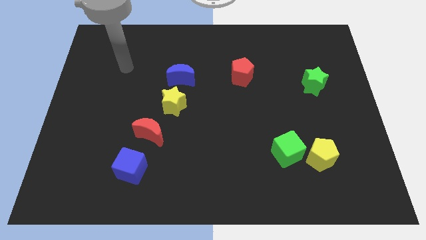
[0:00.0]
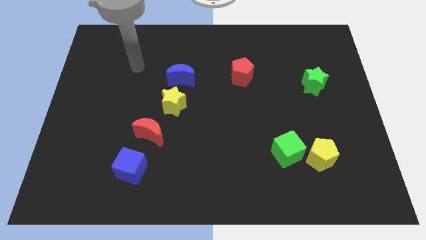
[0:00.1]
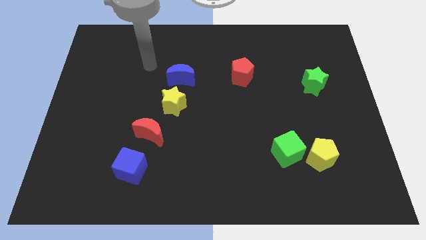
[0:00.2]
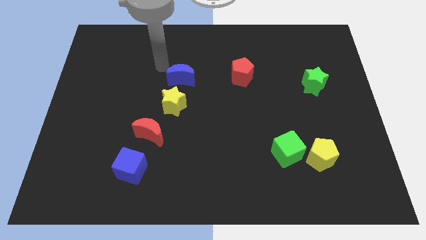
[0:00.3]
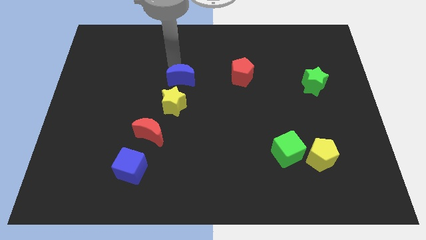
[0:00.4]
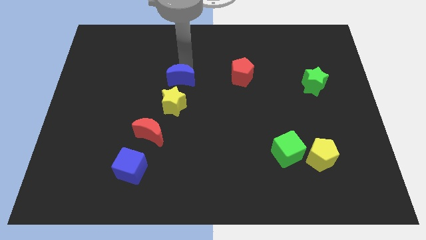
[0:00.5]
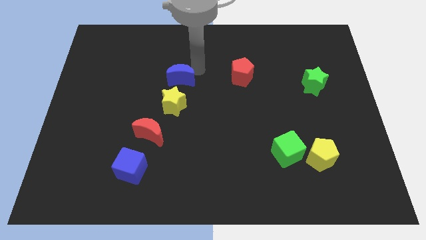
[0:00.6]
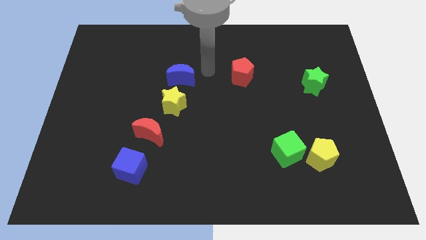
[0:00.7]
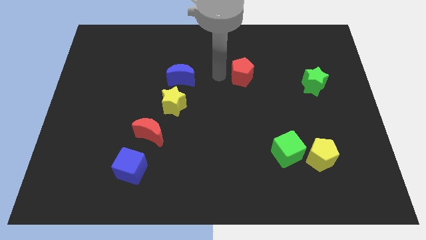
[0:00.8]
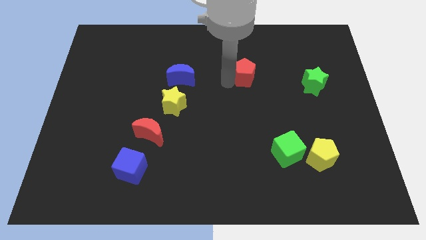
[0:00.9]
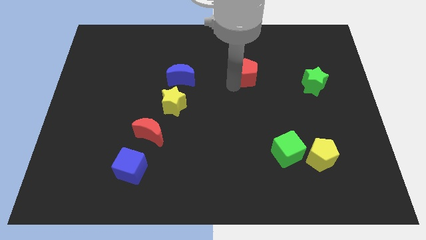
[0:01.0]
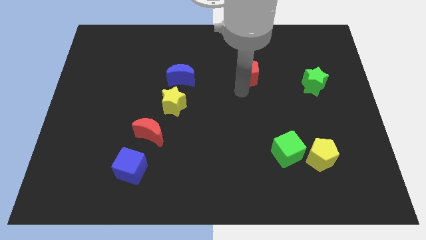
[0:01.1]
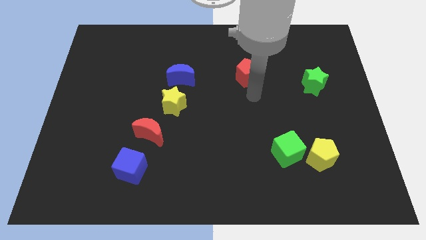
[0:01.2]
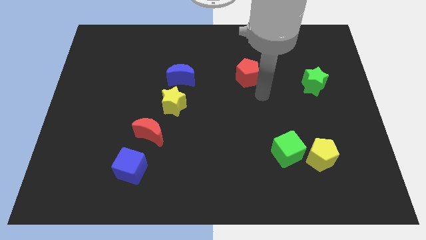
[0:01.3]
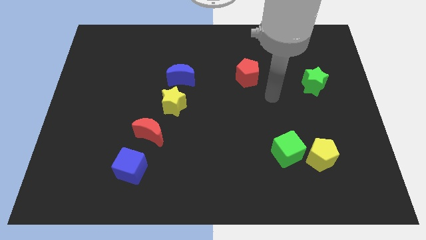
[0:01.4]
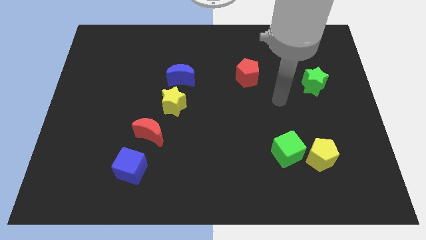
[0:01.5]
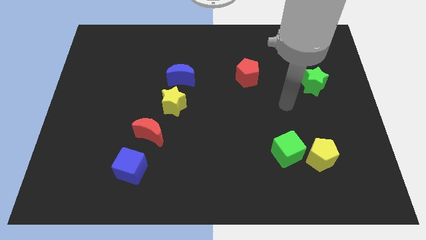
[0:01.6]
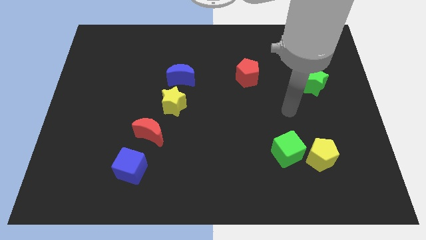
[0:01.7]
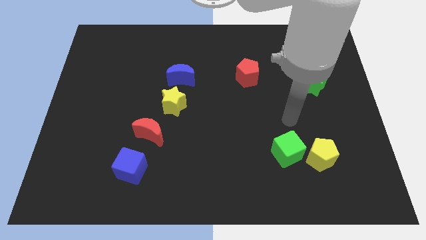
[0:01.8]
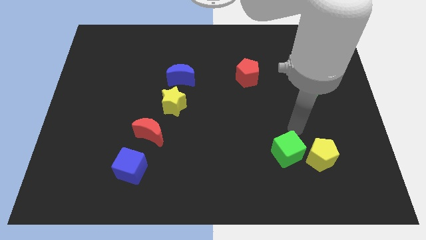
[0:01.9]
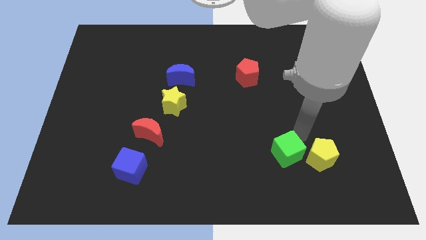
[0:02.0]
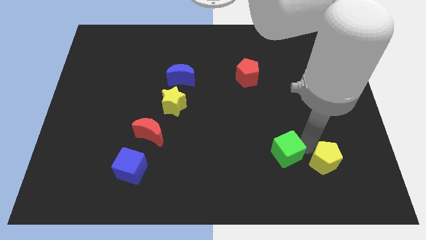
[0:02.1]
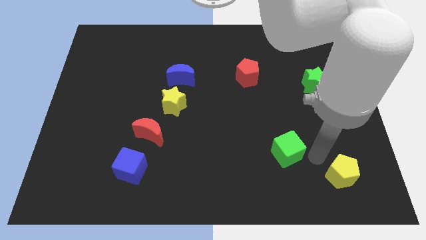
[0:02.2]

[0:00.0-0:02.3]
move the green cube away from the yellow pentagon

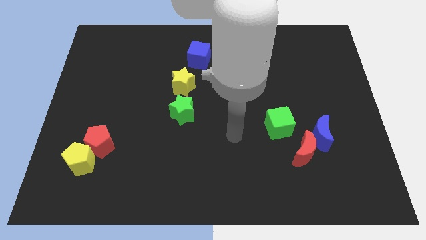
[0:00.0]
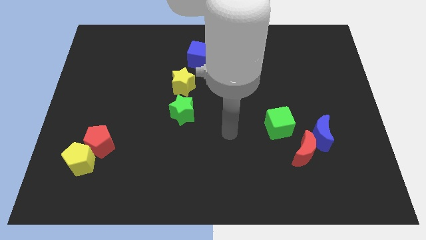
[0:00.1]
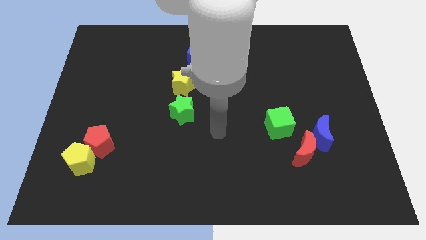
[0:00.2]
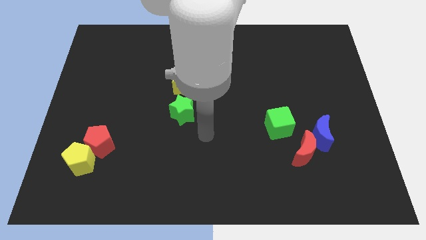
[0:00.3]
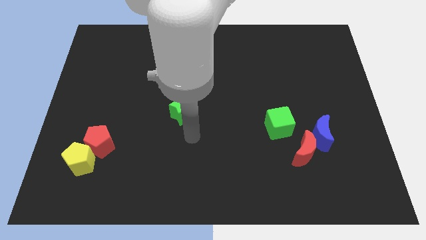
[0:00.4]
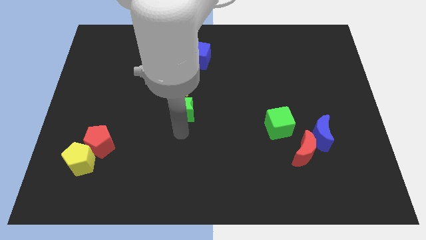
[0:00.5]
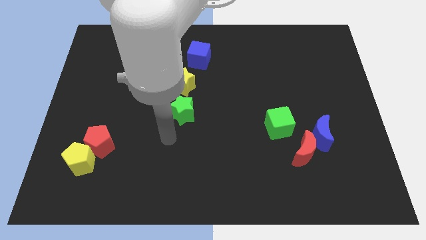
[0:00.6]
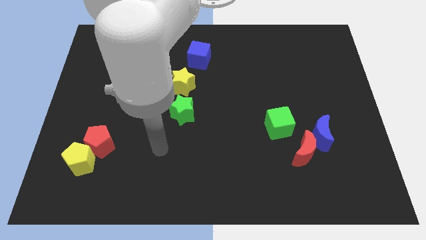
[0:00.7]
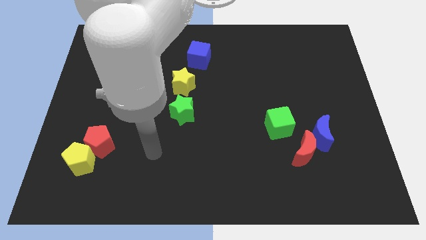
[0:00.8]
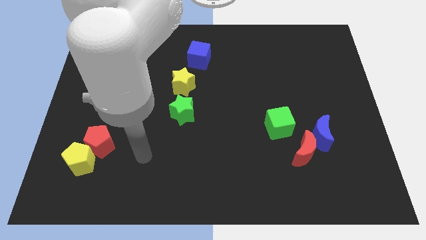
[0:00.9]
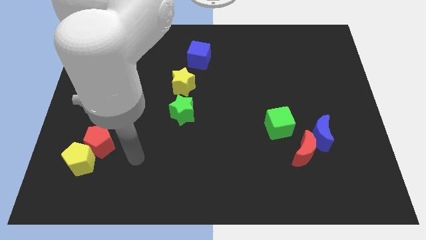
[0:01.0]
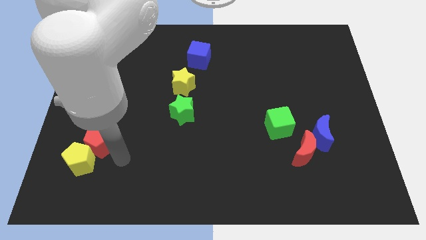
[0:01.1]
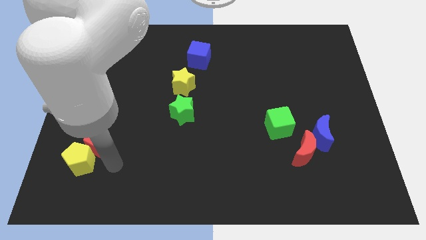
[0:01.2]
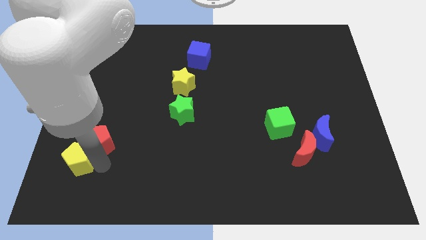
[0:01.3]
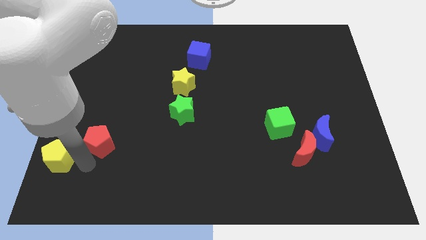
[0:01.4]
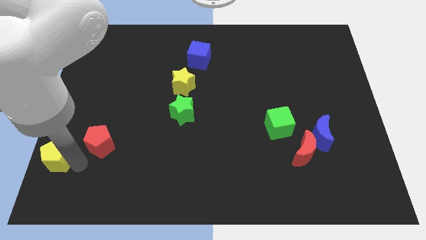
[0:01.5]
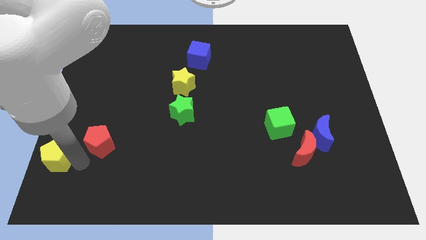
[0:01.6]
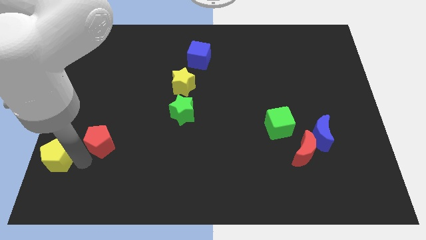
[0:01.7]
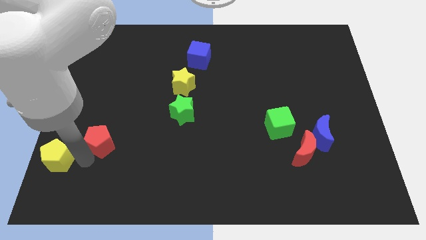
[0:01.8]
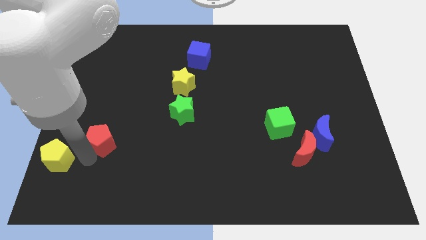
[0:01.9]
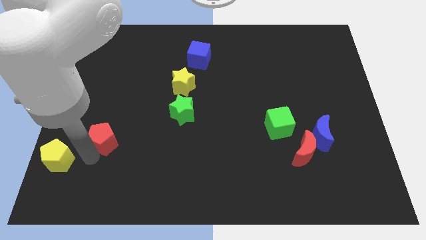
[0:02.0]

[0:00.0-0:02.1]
pull the red pentagon apart from the yellow pentagon

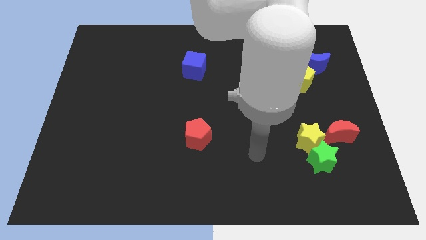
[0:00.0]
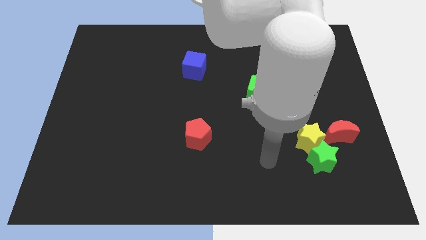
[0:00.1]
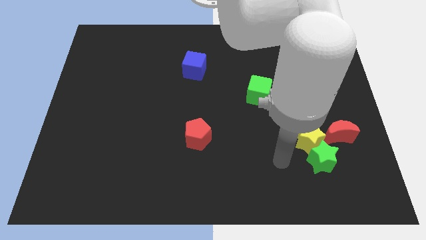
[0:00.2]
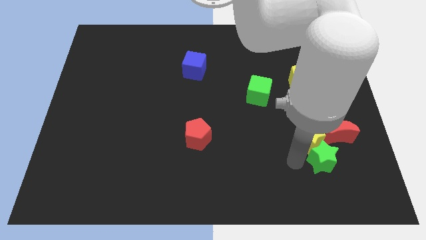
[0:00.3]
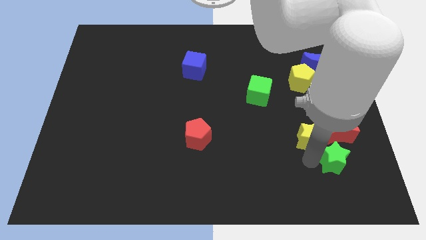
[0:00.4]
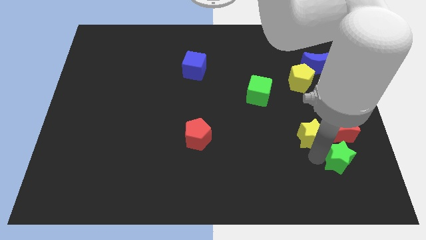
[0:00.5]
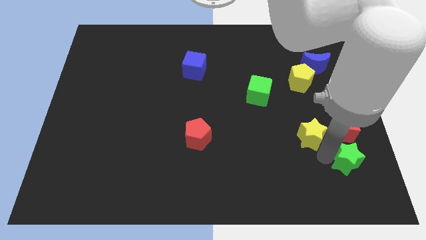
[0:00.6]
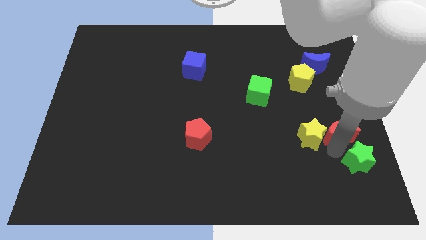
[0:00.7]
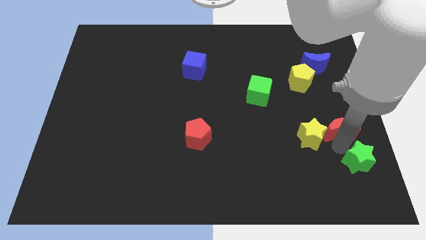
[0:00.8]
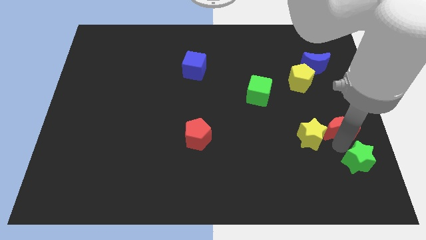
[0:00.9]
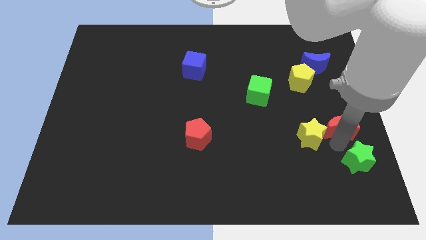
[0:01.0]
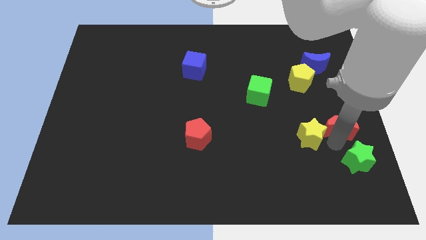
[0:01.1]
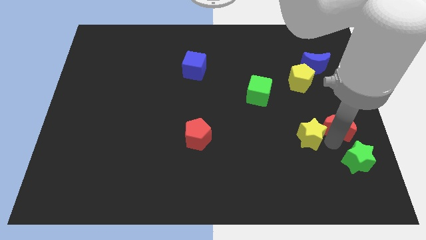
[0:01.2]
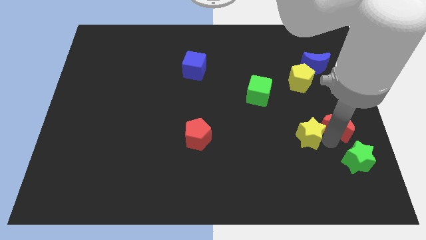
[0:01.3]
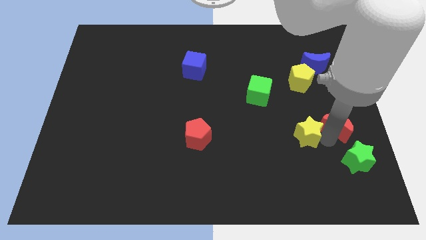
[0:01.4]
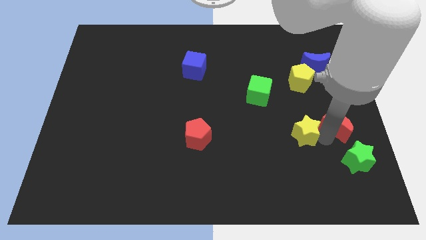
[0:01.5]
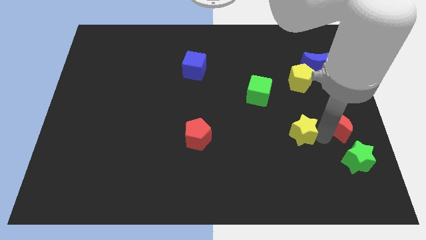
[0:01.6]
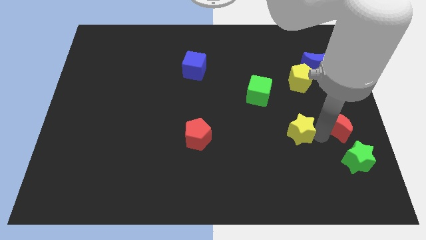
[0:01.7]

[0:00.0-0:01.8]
move the yellow star away from the green star and red moon

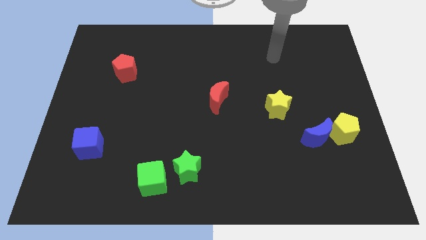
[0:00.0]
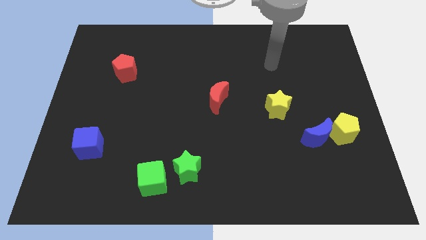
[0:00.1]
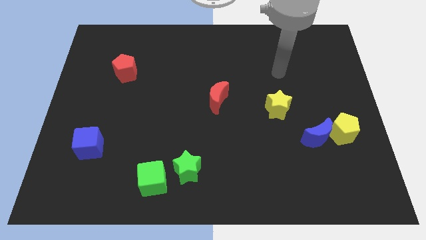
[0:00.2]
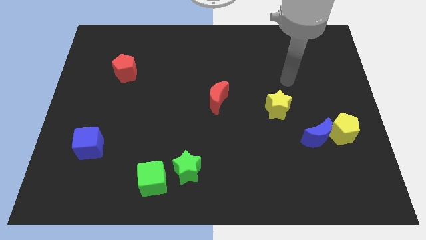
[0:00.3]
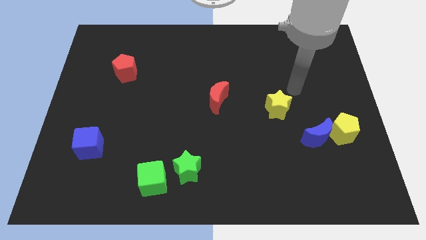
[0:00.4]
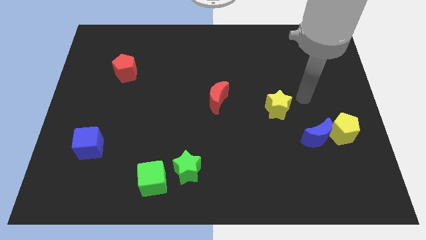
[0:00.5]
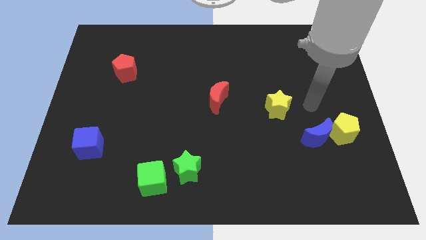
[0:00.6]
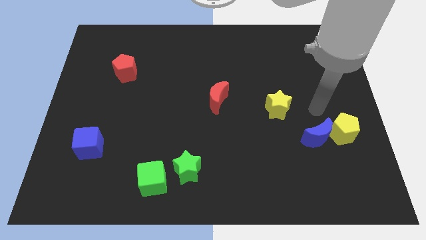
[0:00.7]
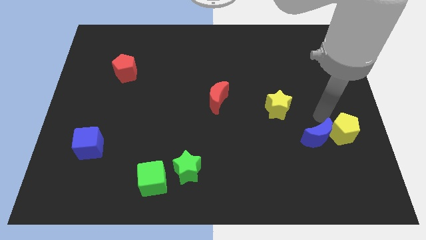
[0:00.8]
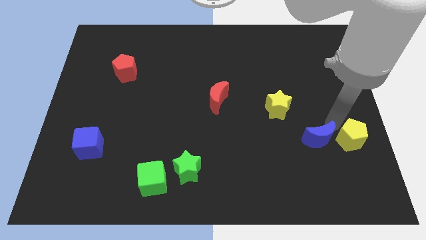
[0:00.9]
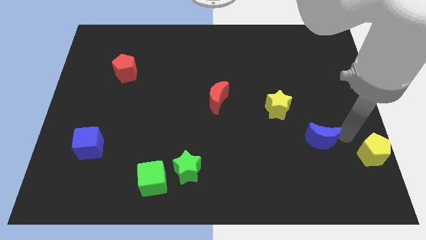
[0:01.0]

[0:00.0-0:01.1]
pull the blue moon apart from the yellow pentagon

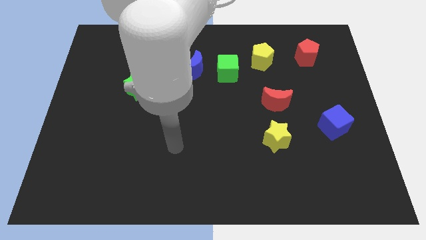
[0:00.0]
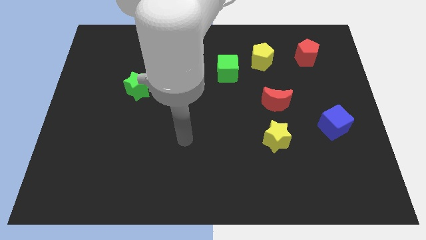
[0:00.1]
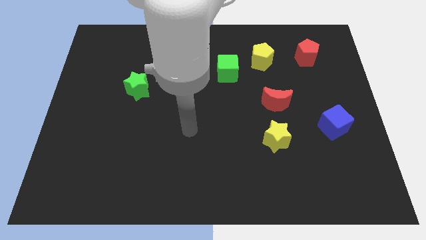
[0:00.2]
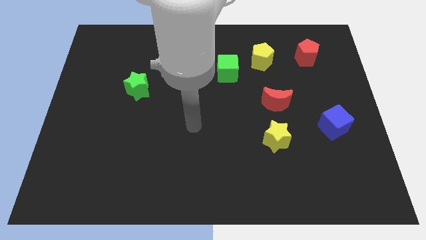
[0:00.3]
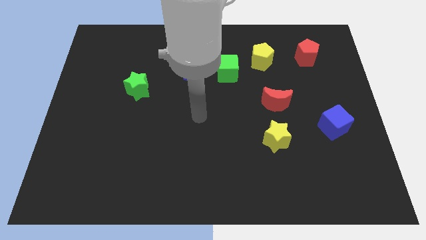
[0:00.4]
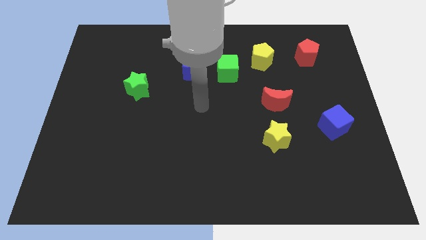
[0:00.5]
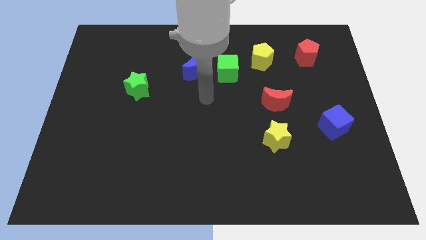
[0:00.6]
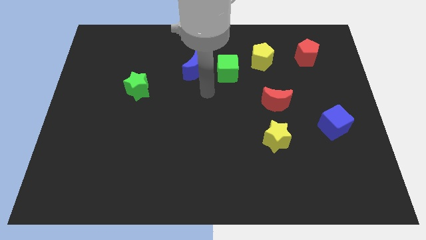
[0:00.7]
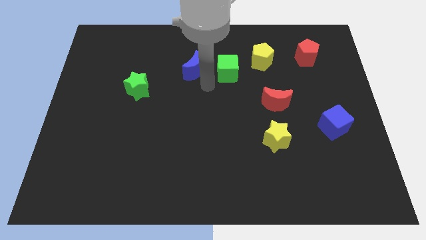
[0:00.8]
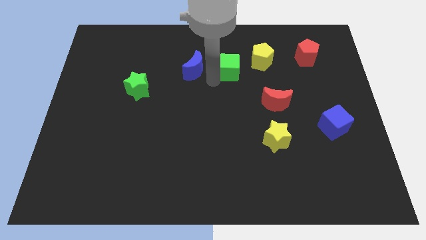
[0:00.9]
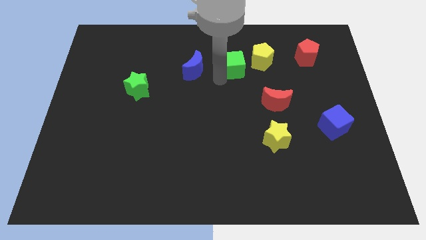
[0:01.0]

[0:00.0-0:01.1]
separate the blue moon from the green cube

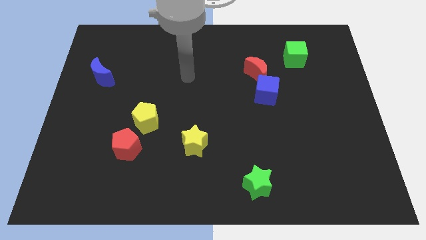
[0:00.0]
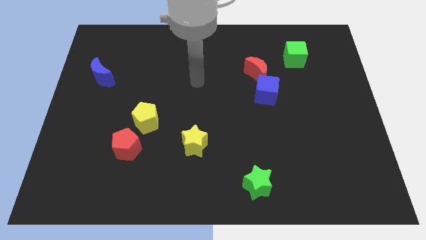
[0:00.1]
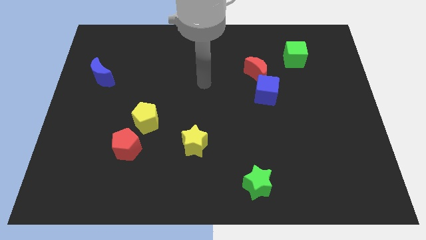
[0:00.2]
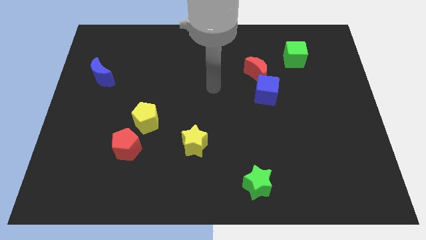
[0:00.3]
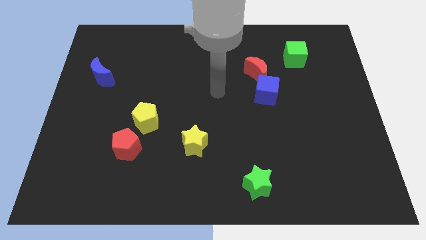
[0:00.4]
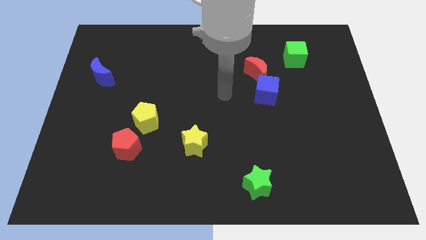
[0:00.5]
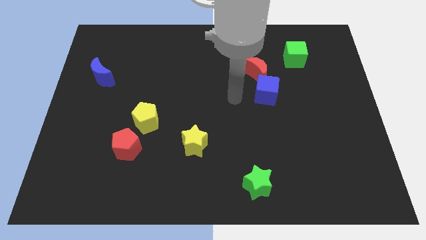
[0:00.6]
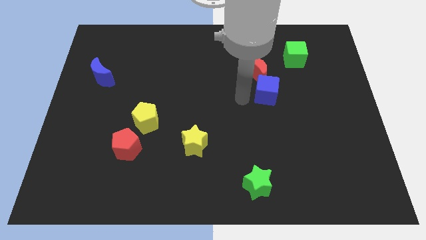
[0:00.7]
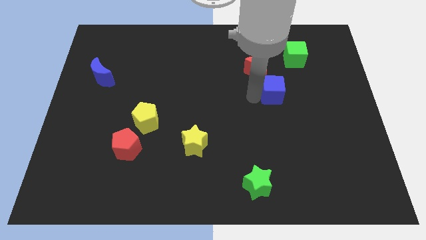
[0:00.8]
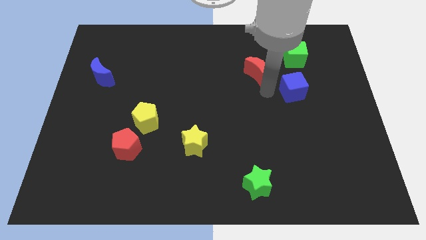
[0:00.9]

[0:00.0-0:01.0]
pull the red moon apart from the blue cube
